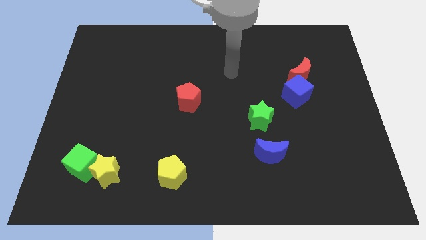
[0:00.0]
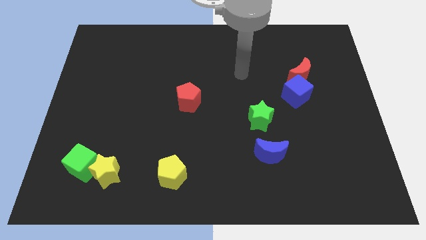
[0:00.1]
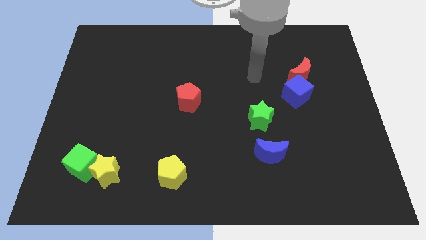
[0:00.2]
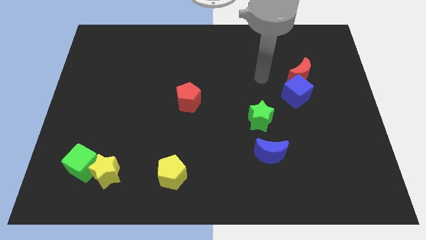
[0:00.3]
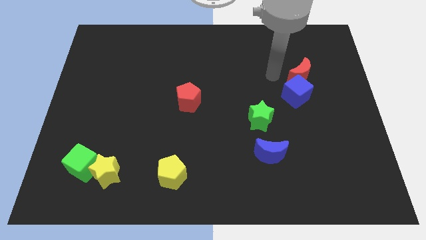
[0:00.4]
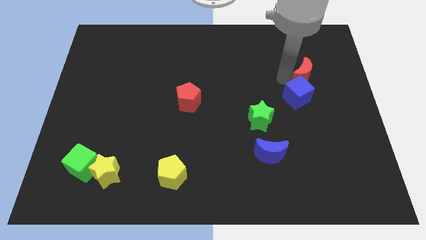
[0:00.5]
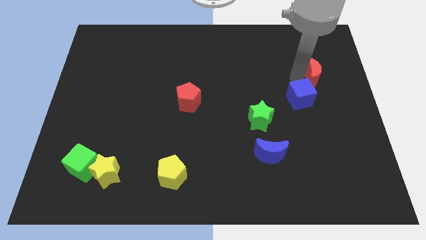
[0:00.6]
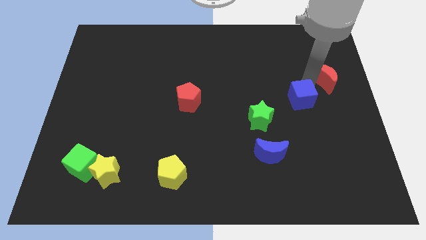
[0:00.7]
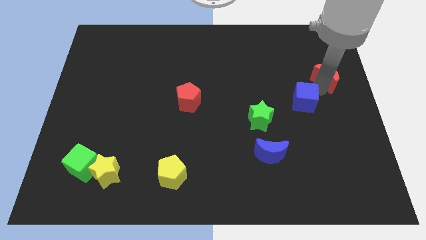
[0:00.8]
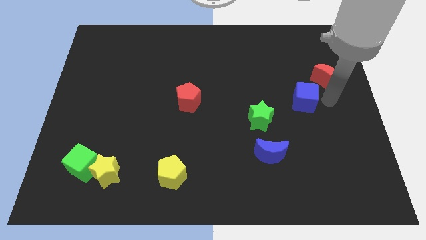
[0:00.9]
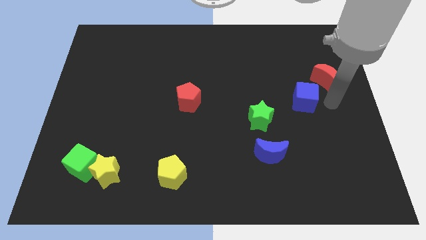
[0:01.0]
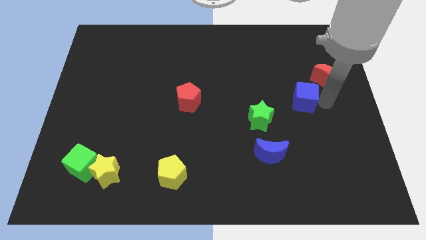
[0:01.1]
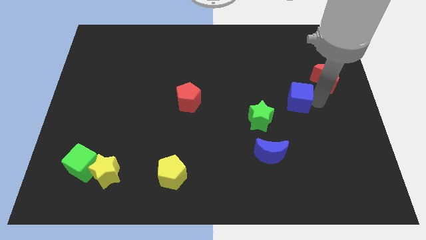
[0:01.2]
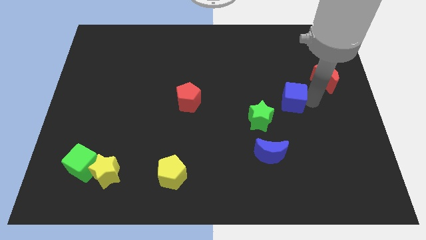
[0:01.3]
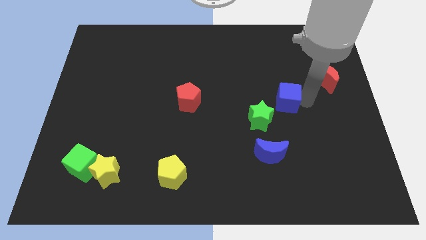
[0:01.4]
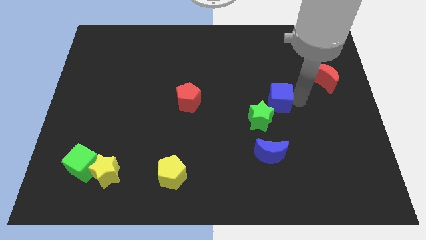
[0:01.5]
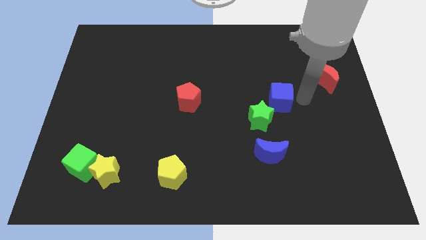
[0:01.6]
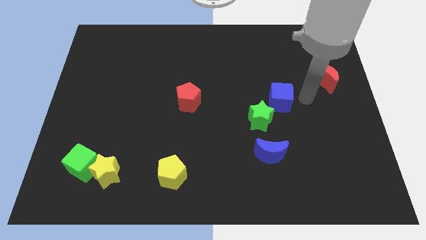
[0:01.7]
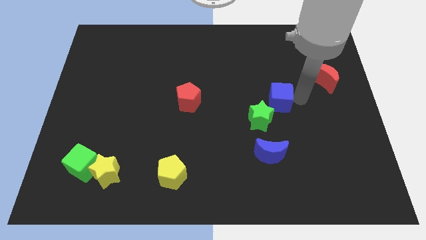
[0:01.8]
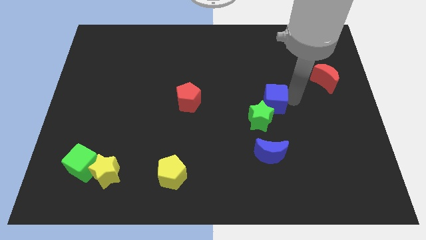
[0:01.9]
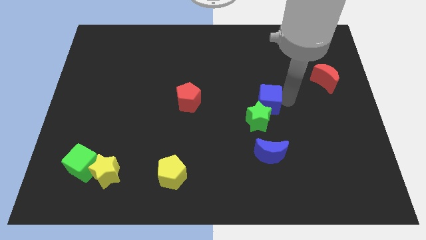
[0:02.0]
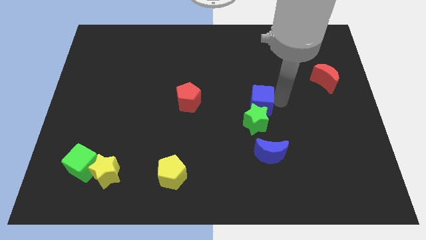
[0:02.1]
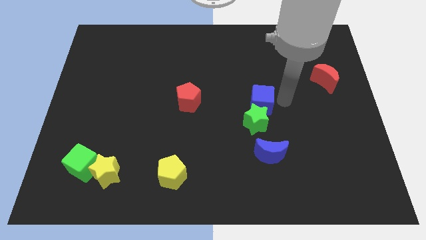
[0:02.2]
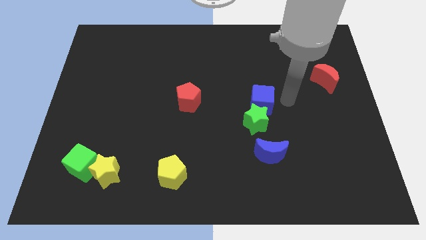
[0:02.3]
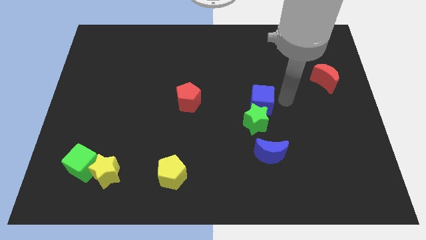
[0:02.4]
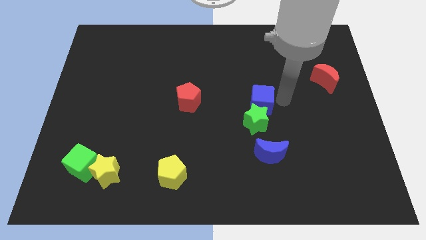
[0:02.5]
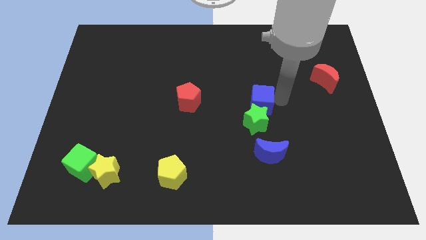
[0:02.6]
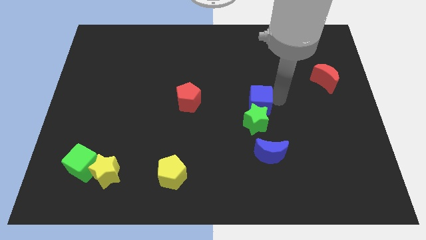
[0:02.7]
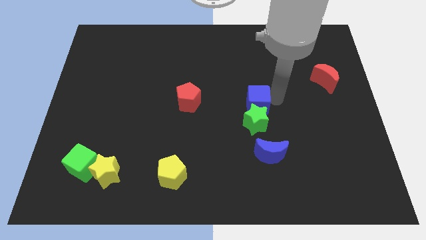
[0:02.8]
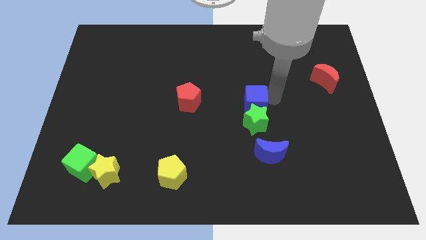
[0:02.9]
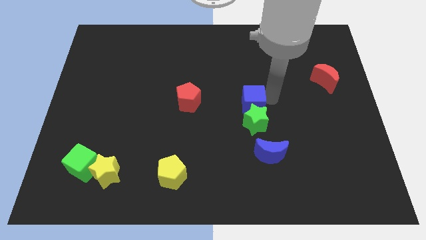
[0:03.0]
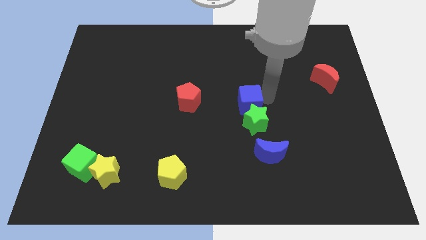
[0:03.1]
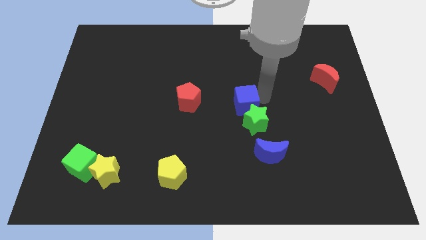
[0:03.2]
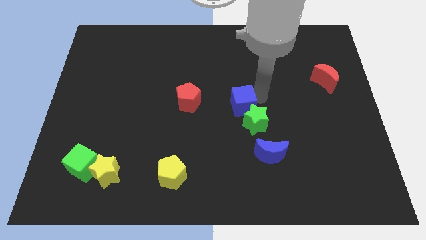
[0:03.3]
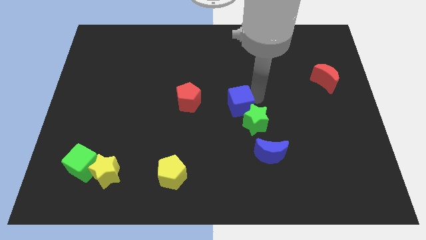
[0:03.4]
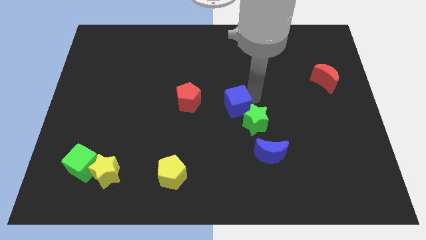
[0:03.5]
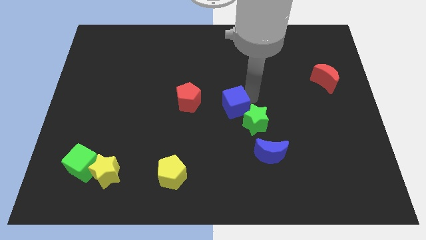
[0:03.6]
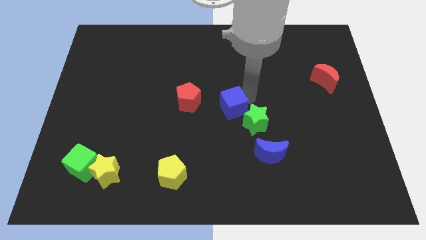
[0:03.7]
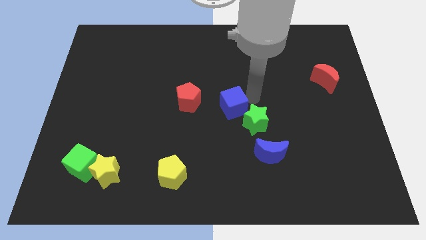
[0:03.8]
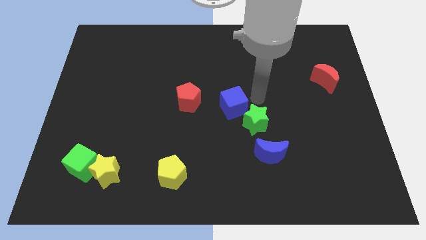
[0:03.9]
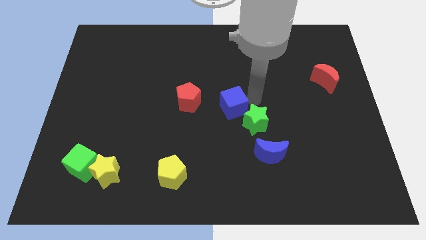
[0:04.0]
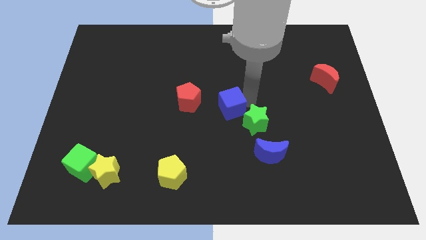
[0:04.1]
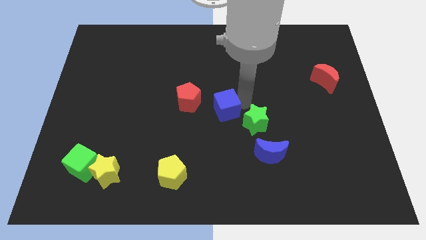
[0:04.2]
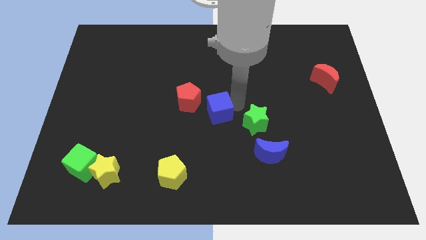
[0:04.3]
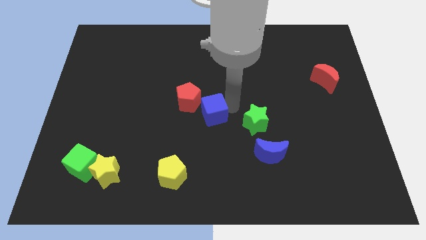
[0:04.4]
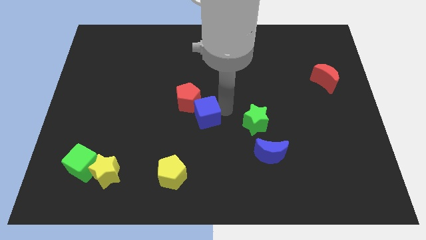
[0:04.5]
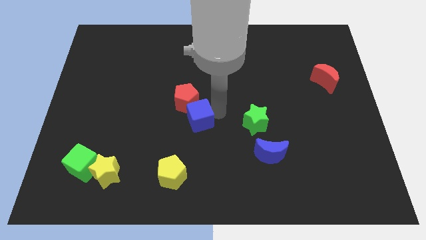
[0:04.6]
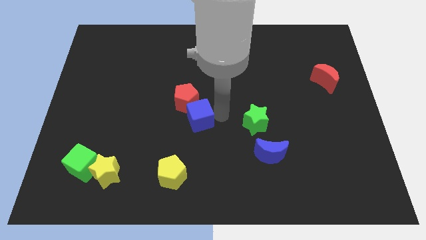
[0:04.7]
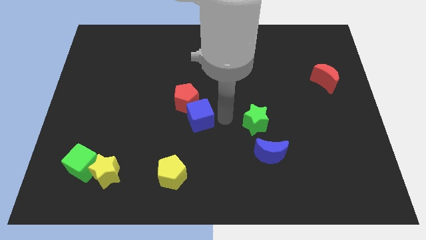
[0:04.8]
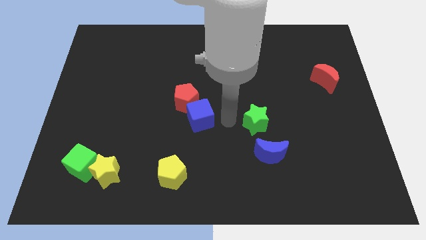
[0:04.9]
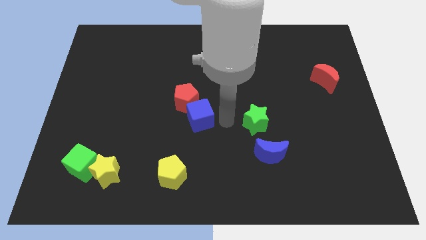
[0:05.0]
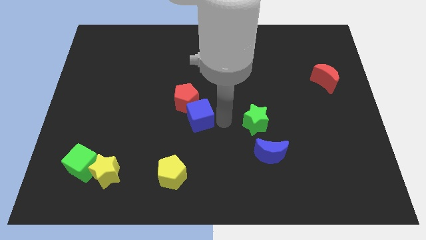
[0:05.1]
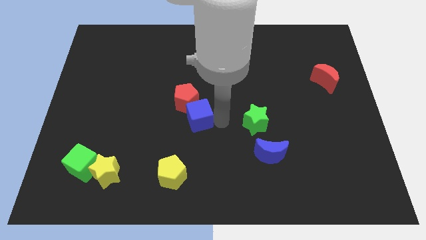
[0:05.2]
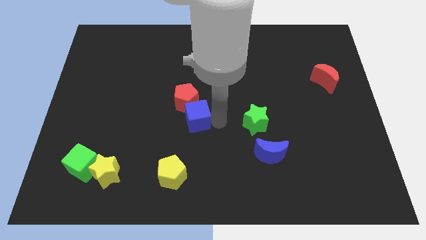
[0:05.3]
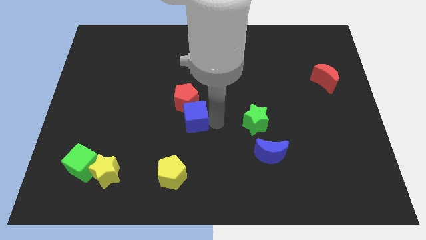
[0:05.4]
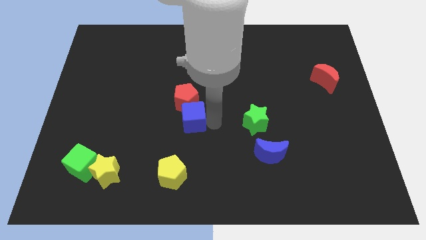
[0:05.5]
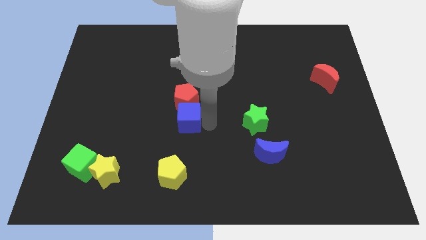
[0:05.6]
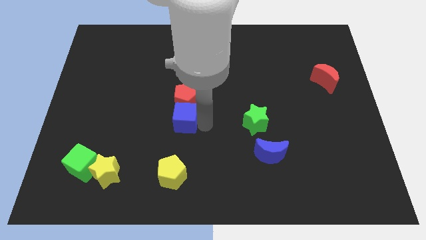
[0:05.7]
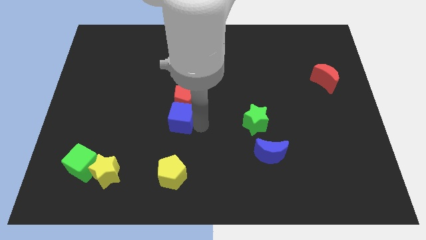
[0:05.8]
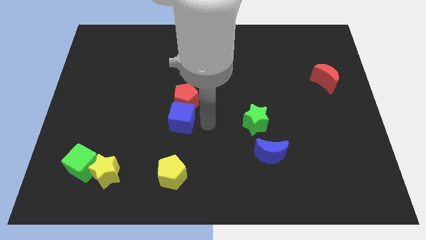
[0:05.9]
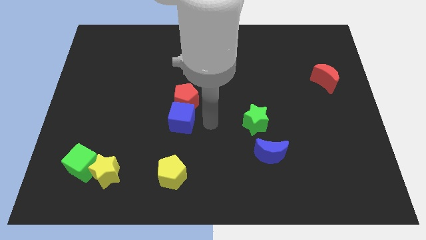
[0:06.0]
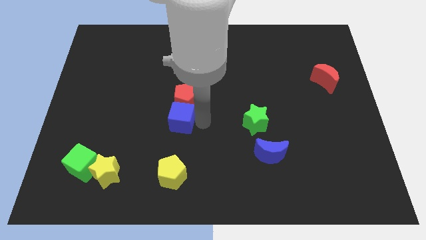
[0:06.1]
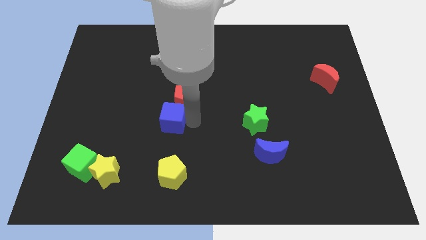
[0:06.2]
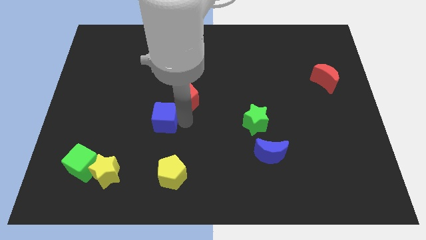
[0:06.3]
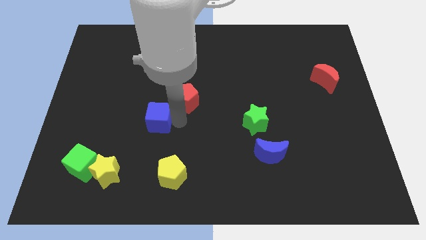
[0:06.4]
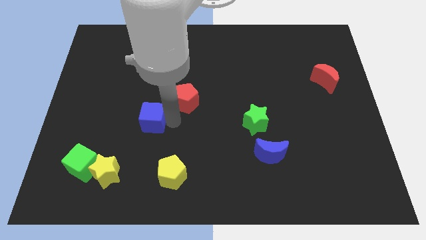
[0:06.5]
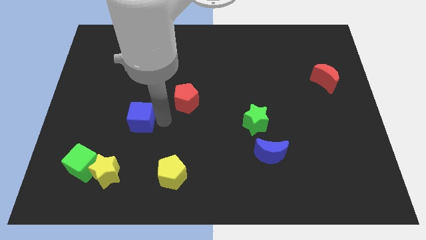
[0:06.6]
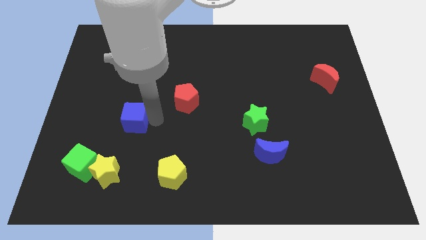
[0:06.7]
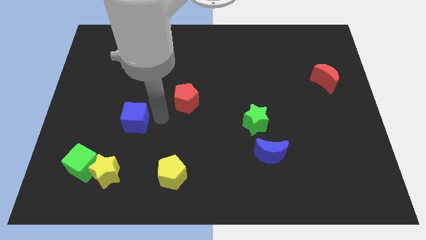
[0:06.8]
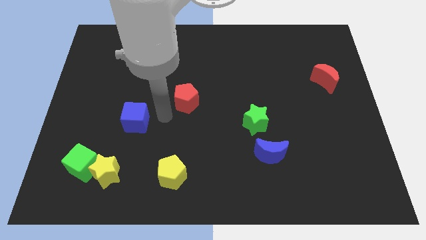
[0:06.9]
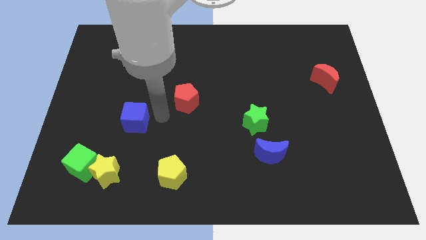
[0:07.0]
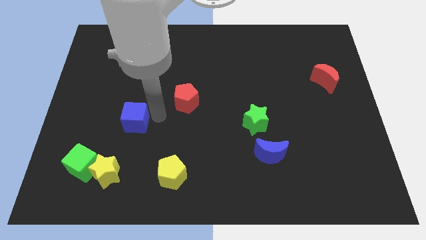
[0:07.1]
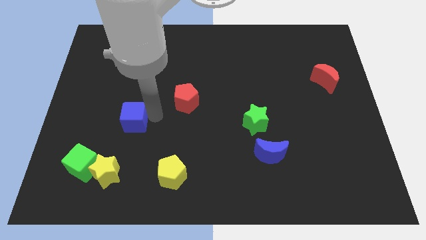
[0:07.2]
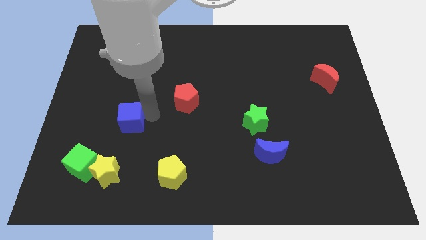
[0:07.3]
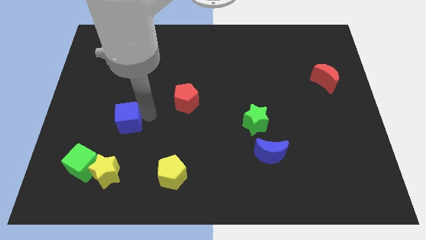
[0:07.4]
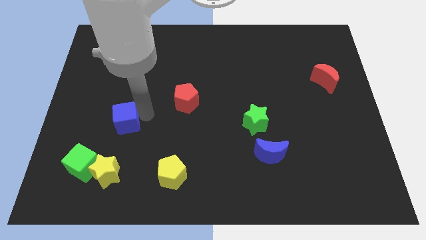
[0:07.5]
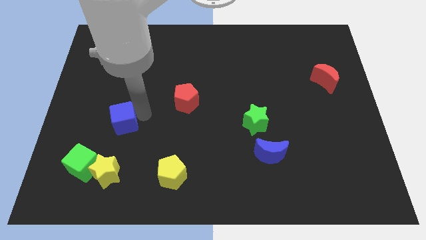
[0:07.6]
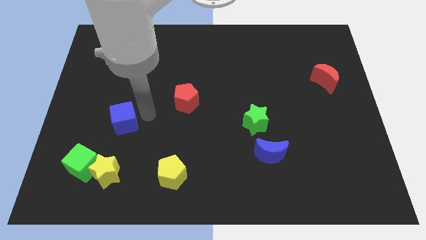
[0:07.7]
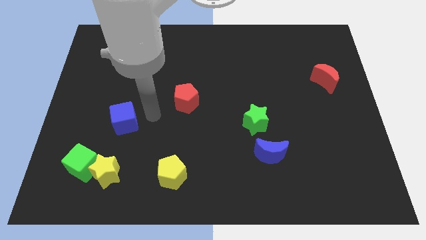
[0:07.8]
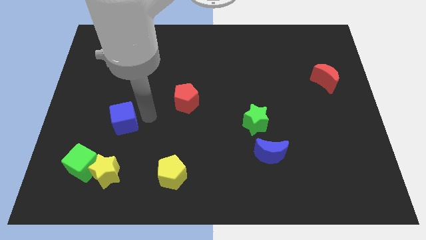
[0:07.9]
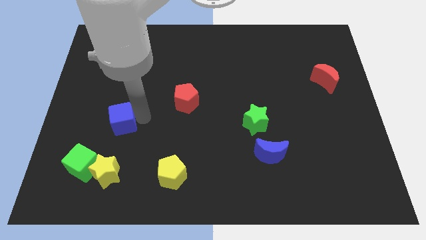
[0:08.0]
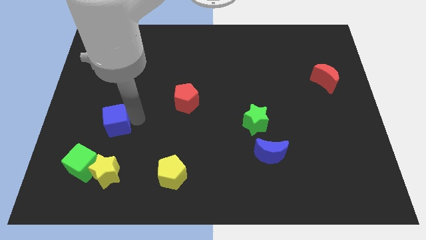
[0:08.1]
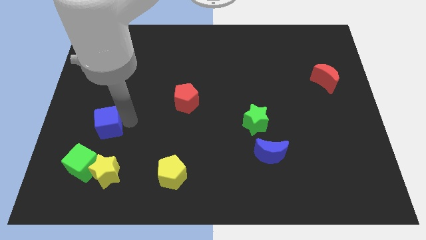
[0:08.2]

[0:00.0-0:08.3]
put the blue cube to the top of the green cube
